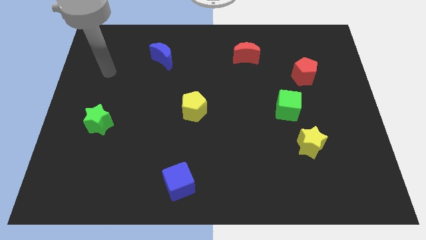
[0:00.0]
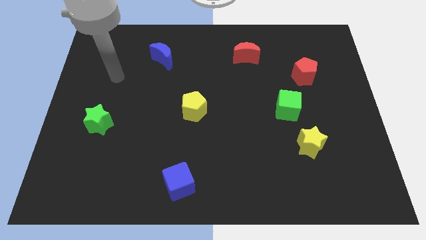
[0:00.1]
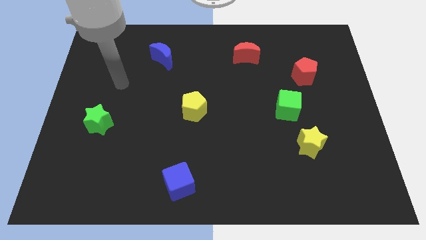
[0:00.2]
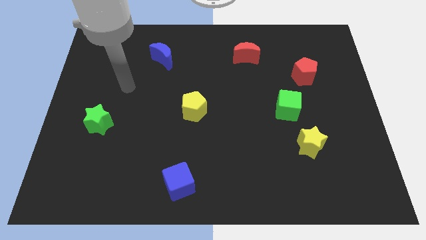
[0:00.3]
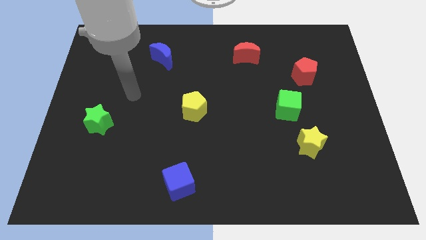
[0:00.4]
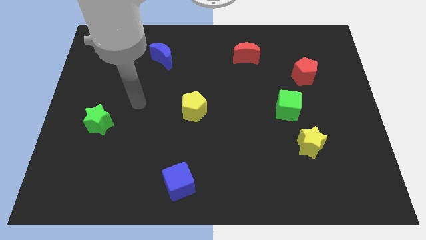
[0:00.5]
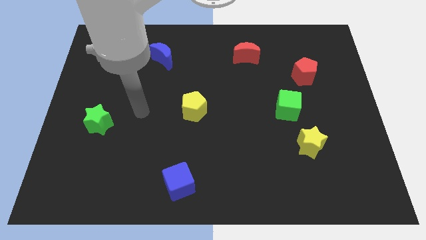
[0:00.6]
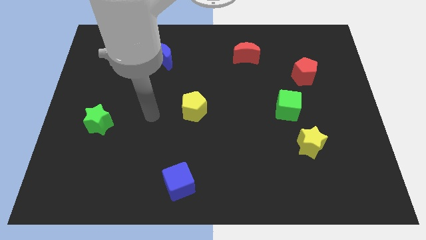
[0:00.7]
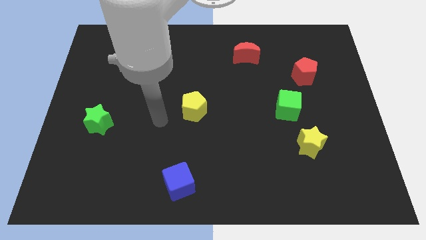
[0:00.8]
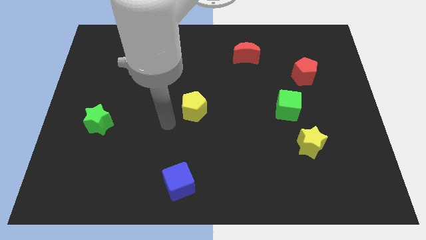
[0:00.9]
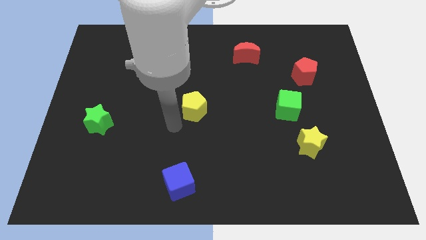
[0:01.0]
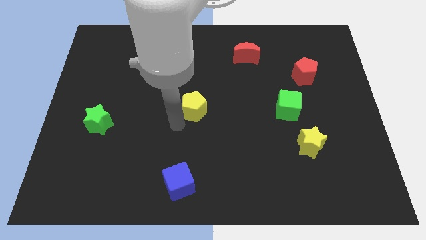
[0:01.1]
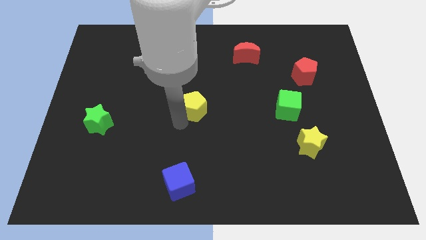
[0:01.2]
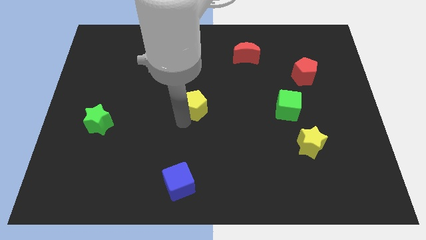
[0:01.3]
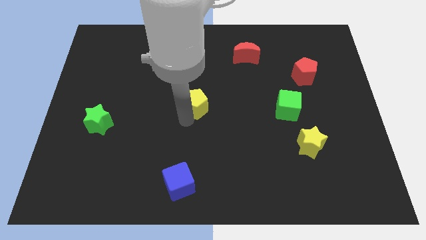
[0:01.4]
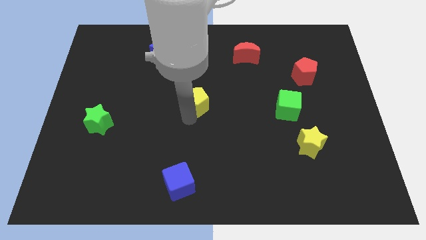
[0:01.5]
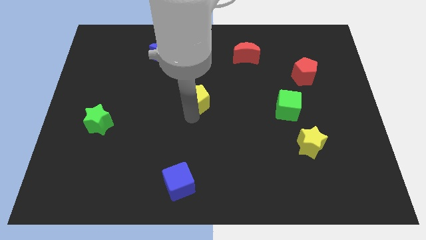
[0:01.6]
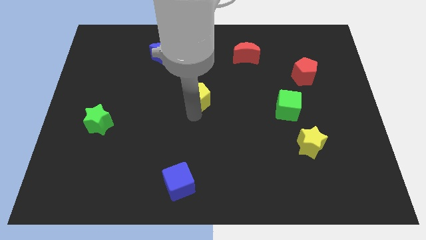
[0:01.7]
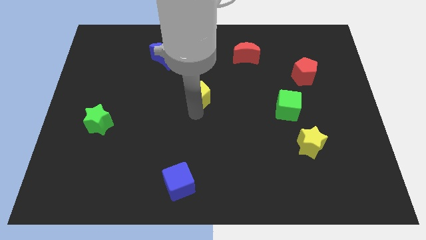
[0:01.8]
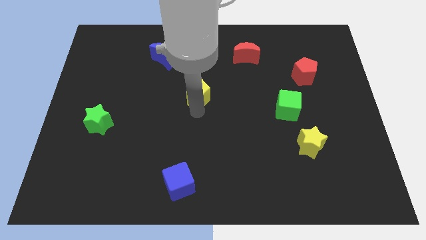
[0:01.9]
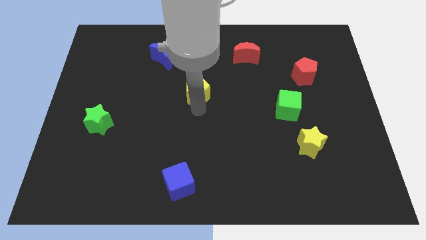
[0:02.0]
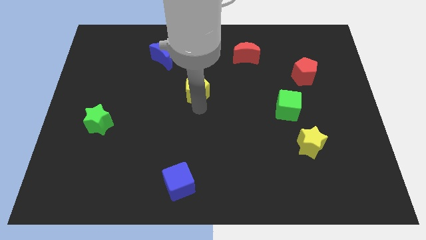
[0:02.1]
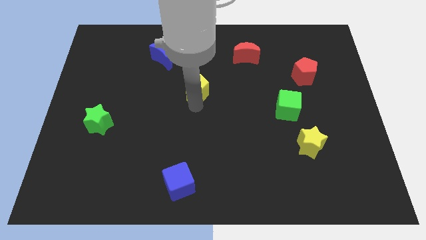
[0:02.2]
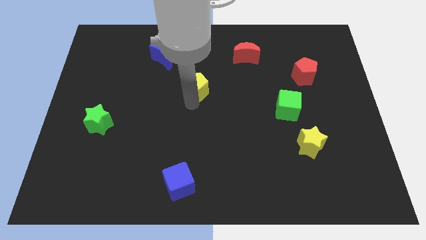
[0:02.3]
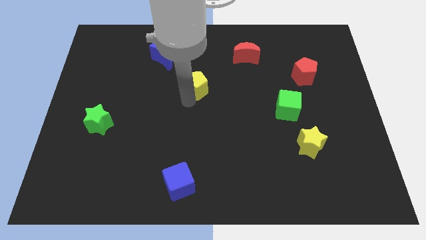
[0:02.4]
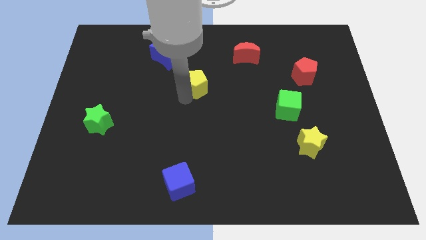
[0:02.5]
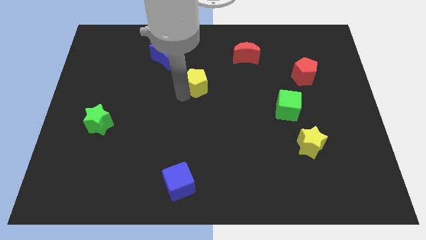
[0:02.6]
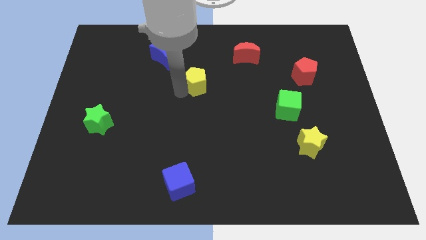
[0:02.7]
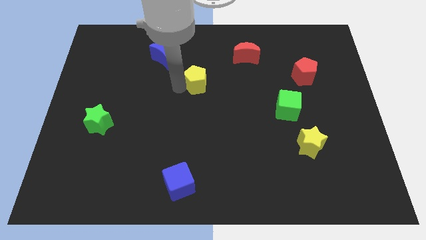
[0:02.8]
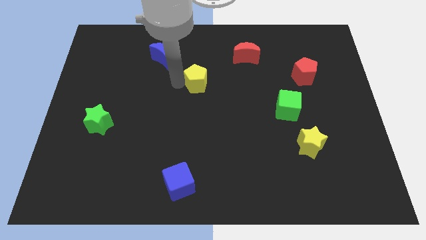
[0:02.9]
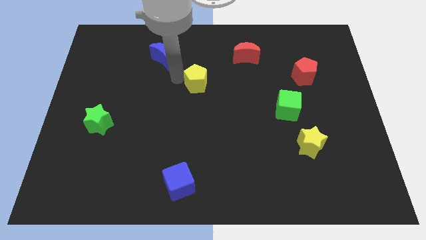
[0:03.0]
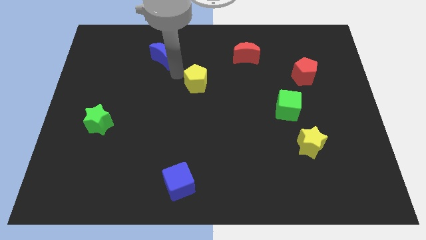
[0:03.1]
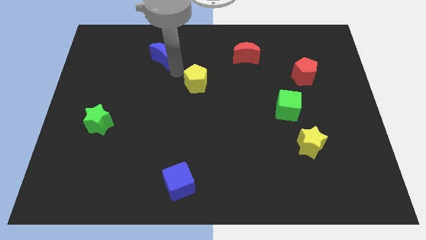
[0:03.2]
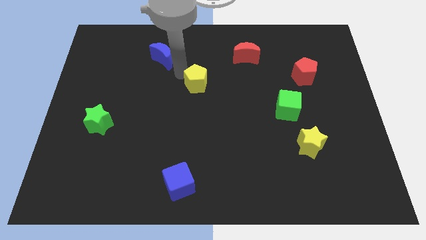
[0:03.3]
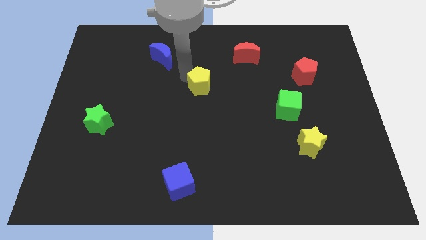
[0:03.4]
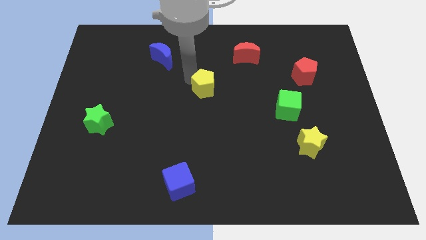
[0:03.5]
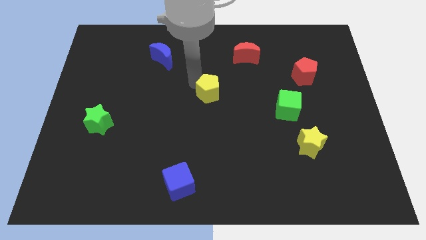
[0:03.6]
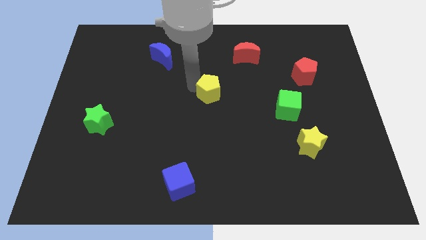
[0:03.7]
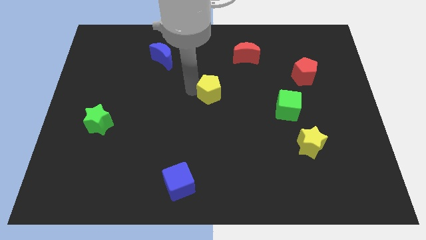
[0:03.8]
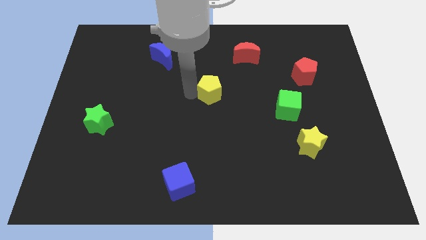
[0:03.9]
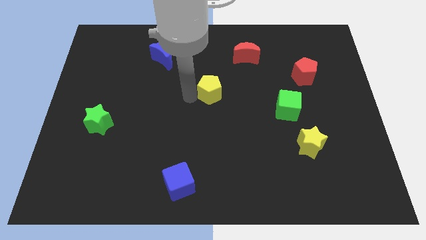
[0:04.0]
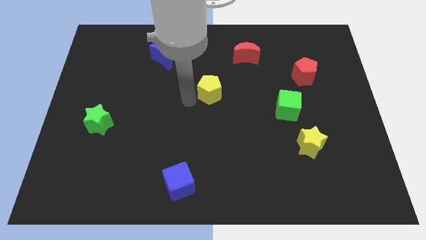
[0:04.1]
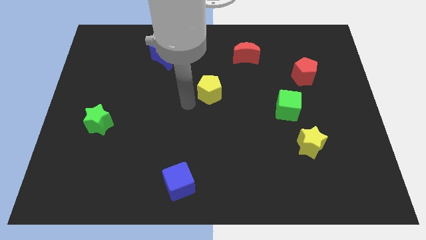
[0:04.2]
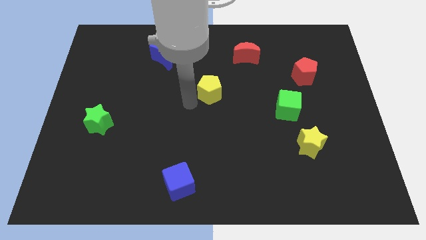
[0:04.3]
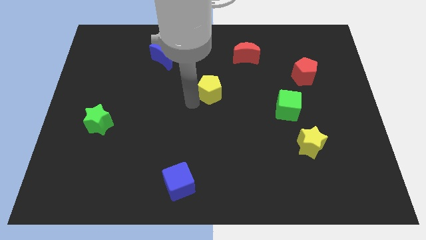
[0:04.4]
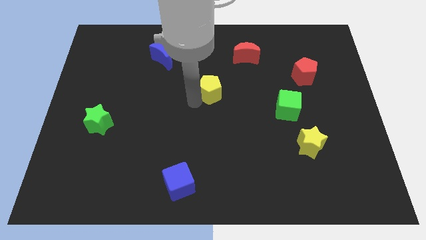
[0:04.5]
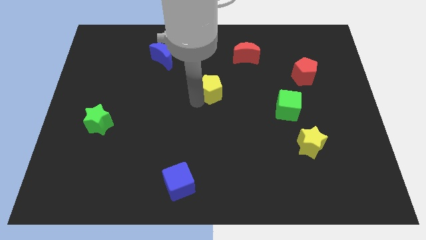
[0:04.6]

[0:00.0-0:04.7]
slide the yellow pentagon somewhat upwards and to the right

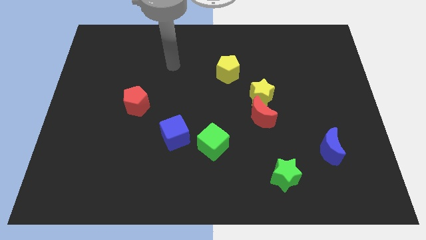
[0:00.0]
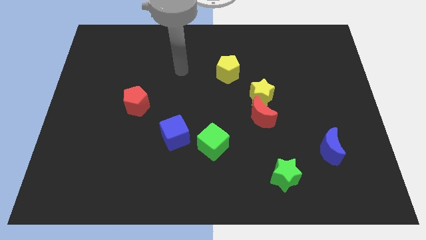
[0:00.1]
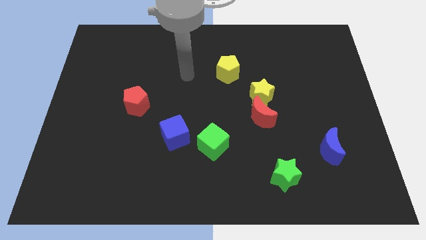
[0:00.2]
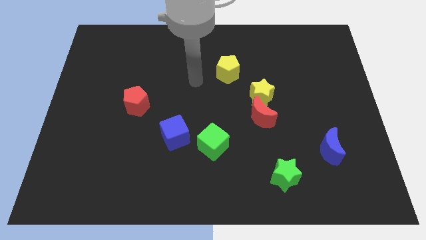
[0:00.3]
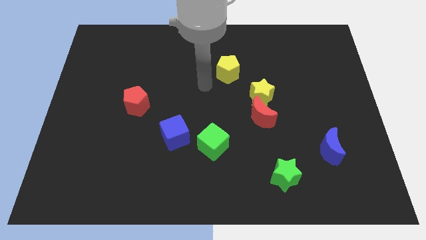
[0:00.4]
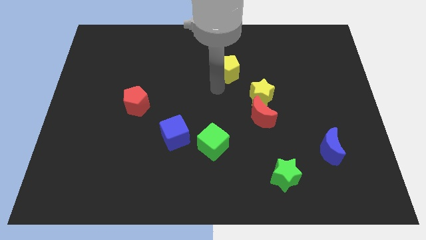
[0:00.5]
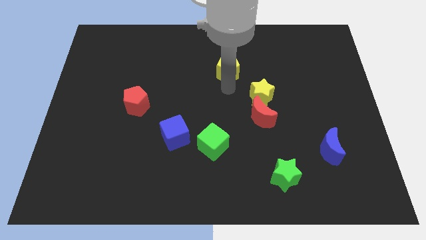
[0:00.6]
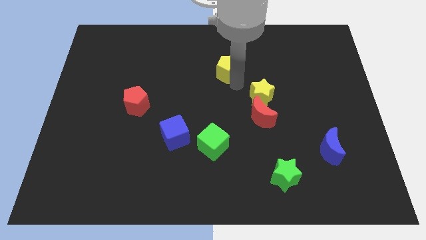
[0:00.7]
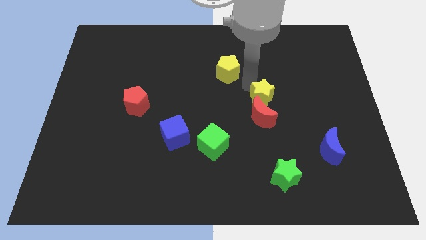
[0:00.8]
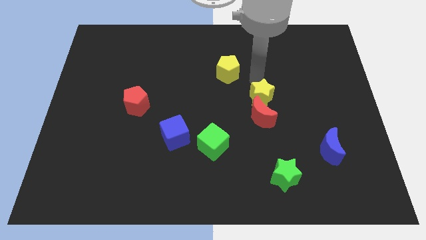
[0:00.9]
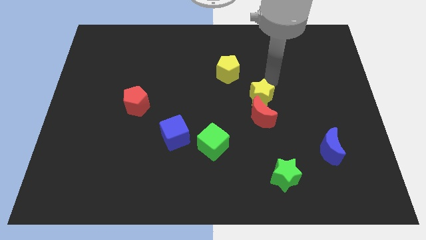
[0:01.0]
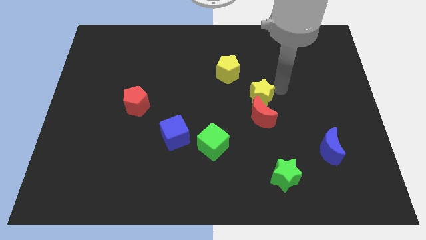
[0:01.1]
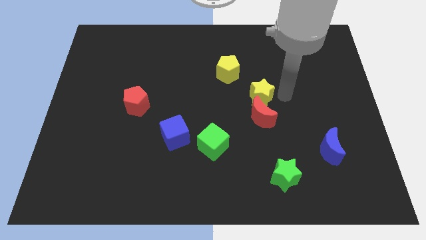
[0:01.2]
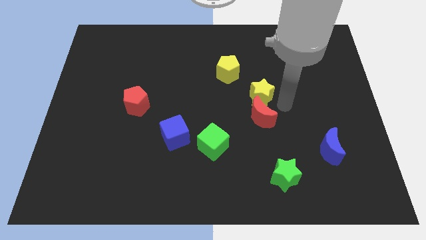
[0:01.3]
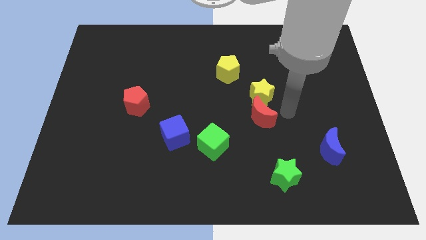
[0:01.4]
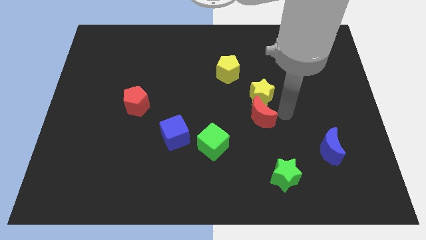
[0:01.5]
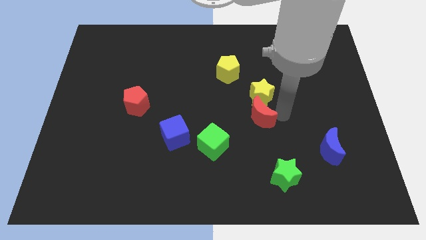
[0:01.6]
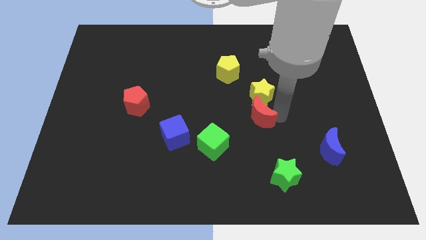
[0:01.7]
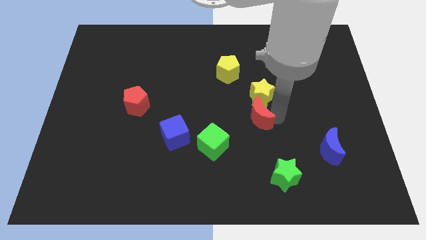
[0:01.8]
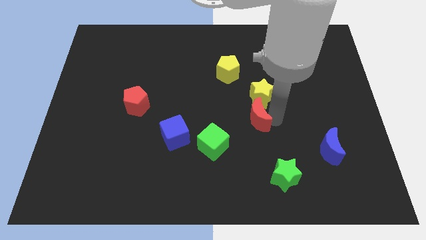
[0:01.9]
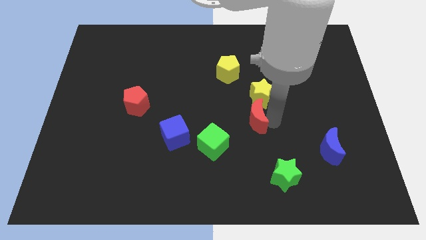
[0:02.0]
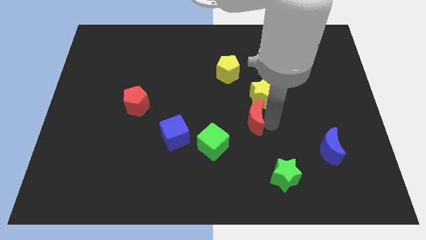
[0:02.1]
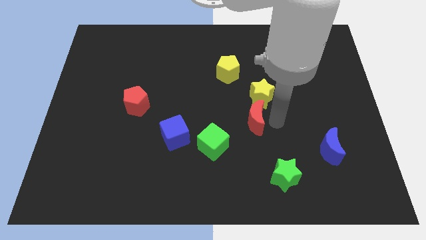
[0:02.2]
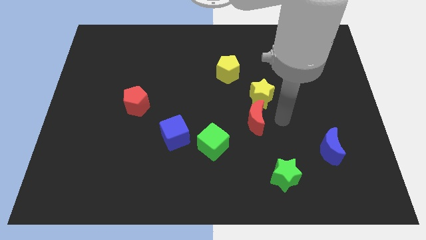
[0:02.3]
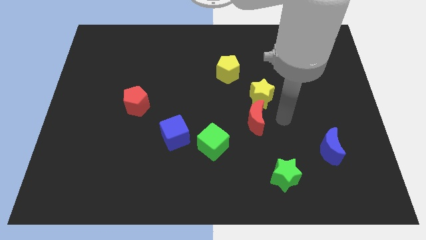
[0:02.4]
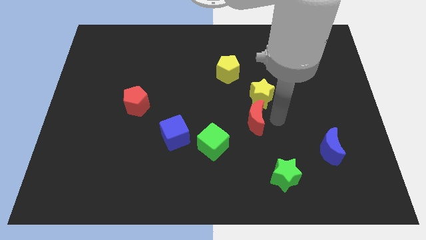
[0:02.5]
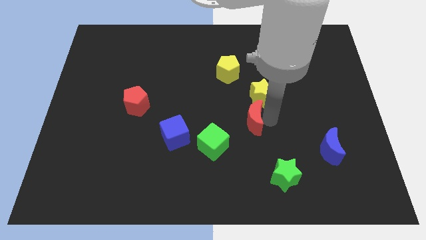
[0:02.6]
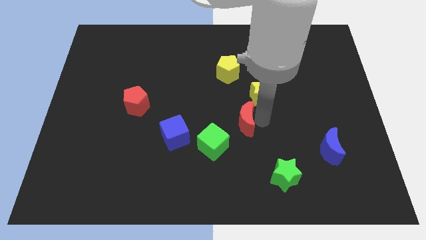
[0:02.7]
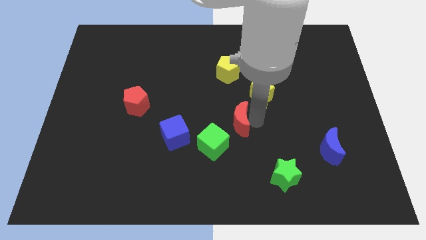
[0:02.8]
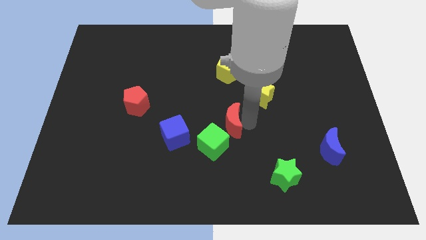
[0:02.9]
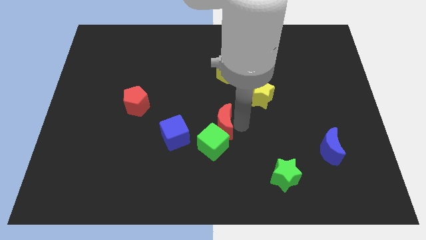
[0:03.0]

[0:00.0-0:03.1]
slide the red moon slightly left
